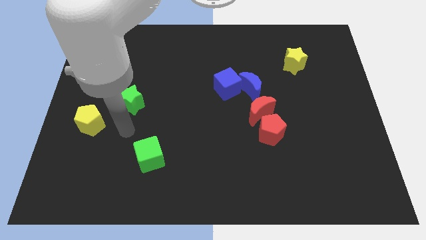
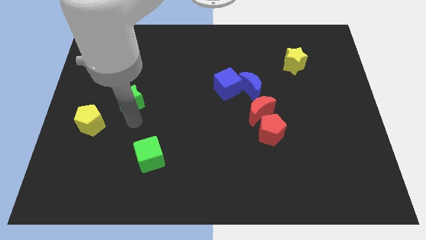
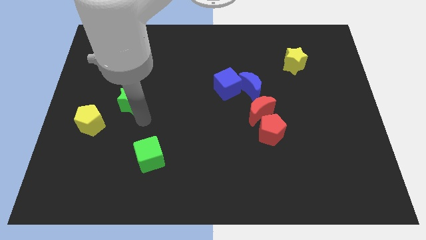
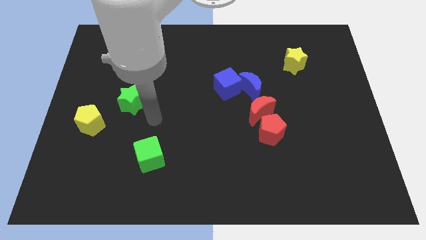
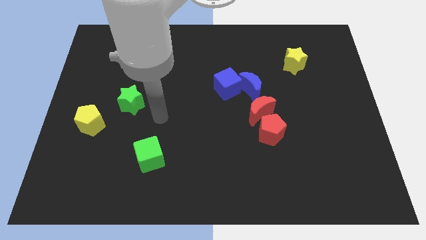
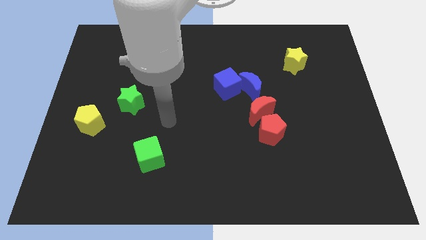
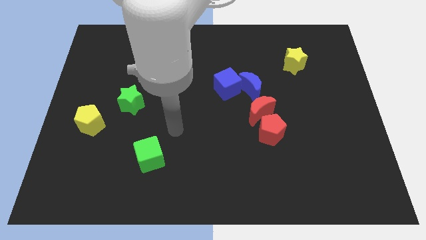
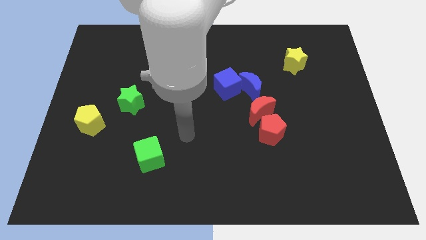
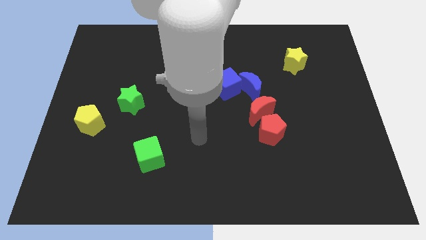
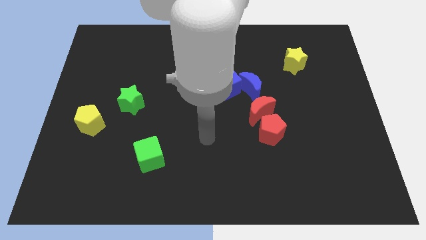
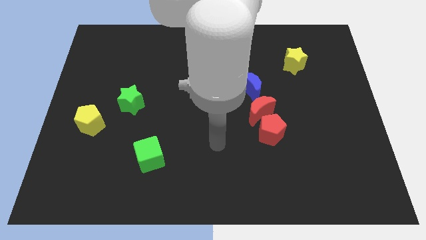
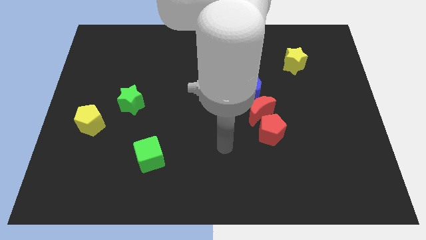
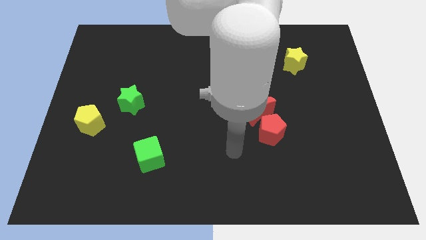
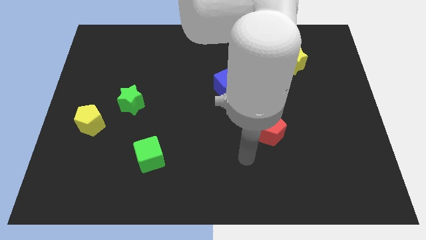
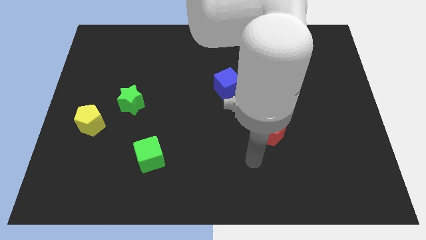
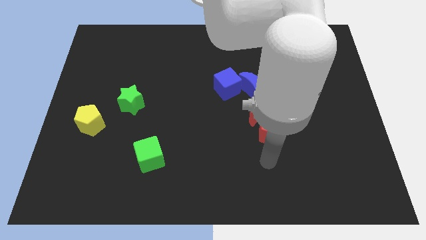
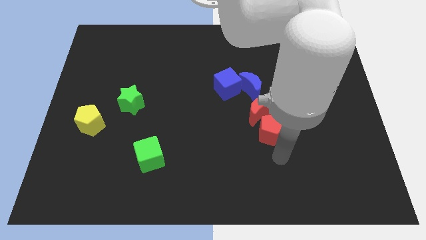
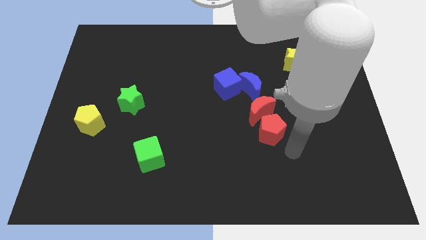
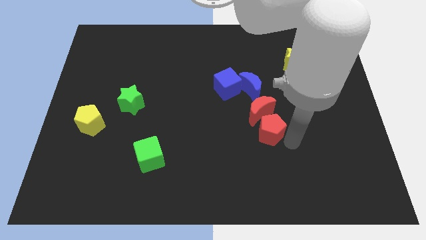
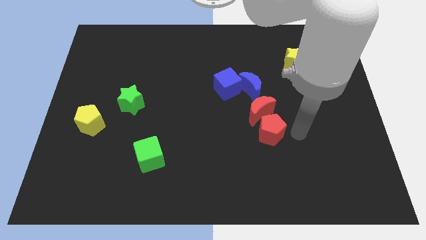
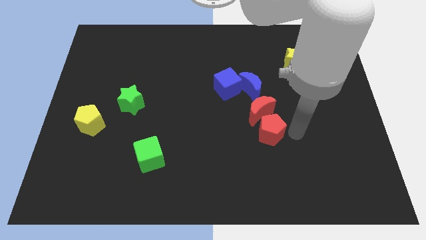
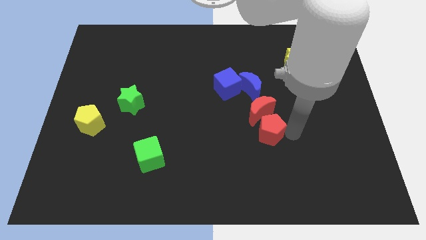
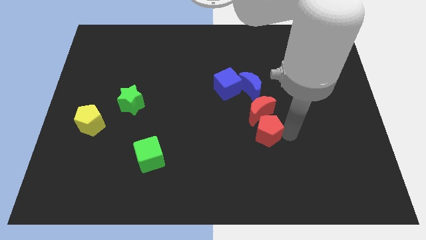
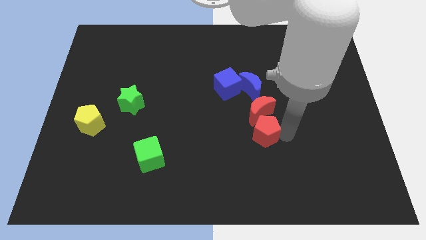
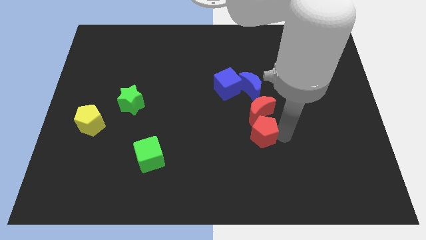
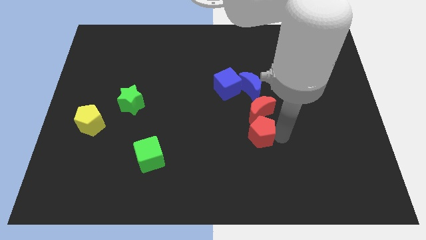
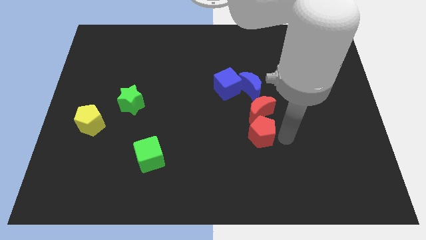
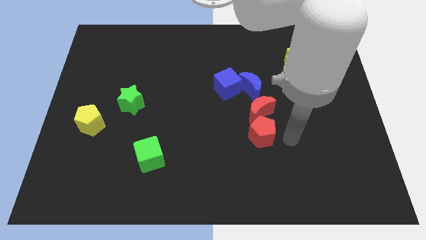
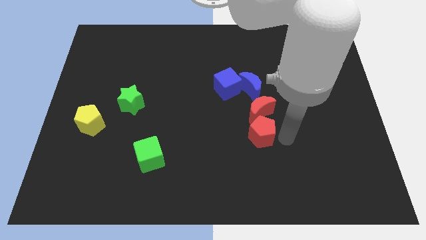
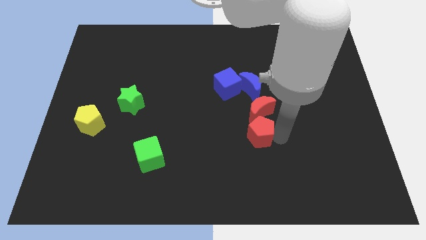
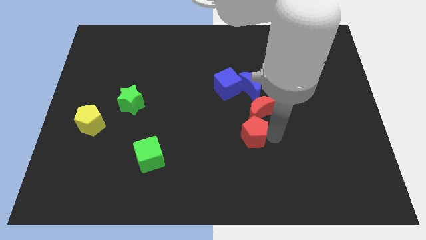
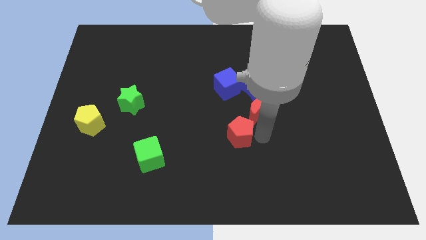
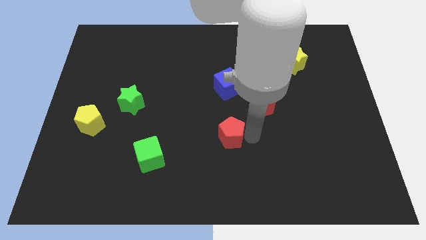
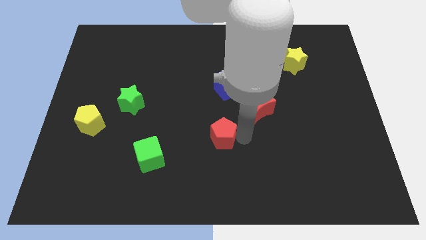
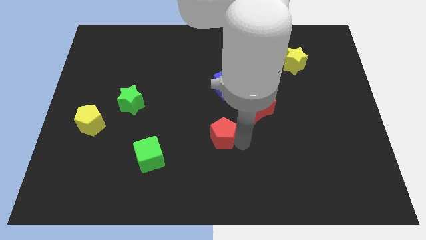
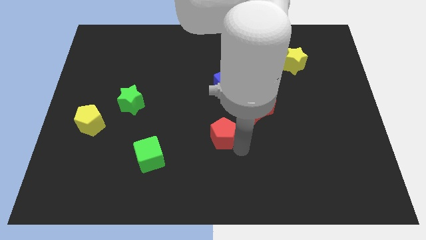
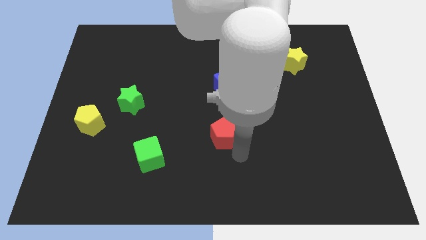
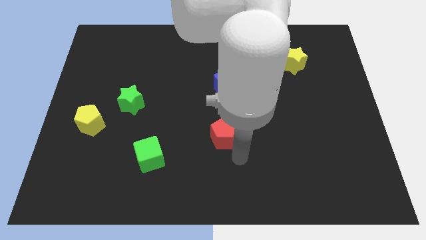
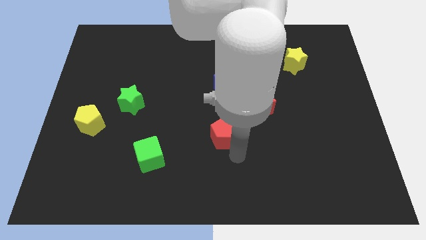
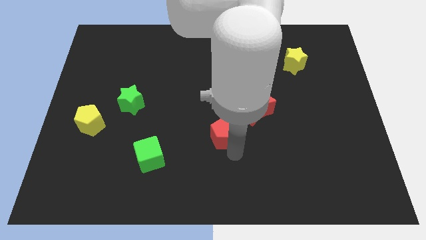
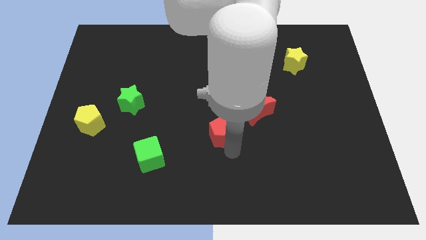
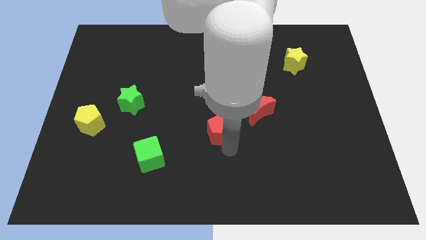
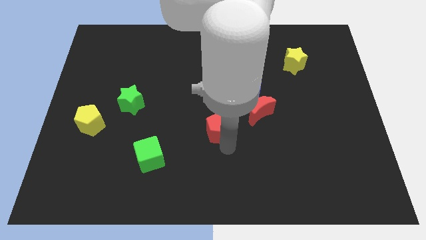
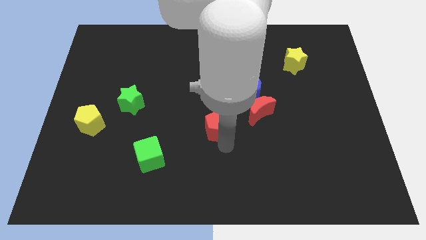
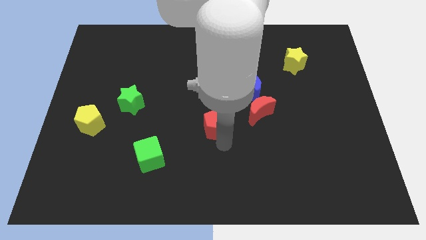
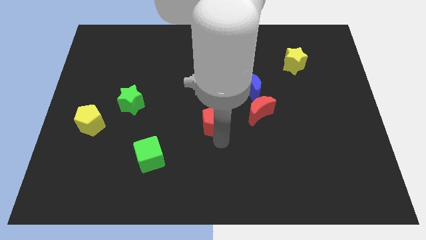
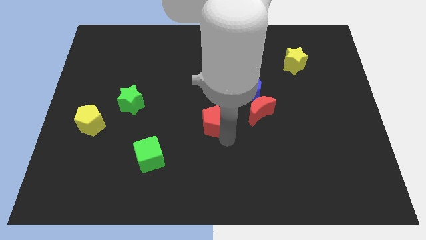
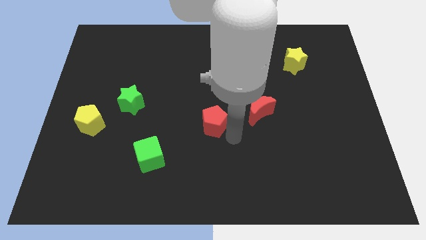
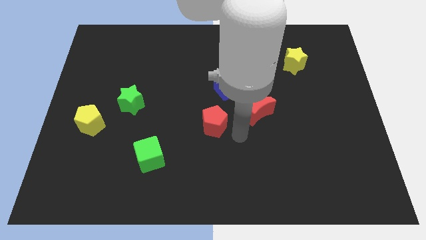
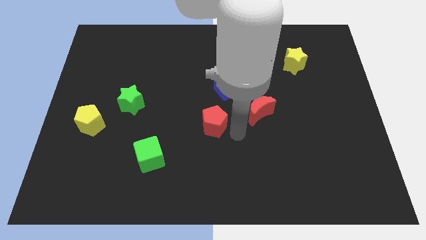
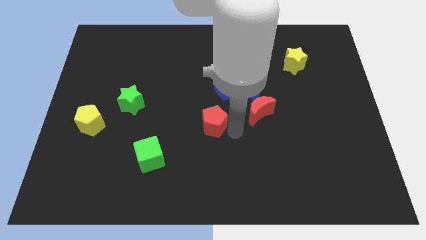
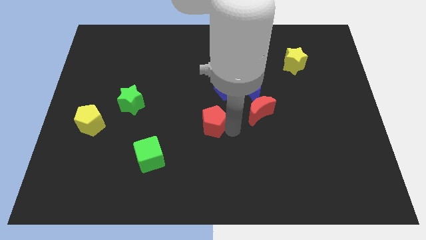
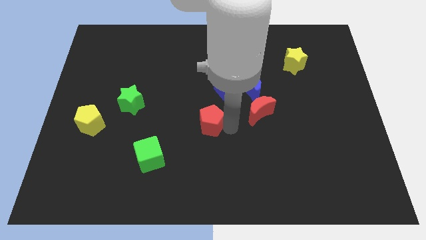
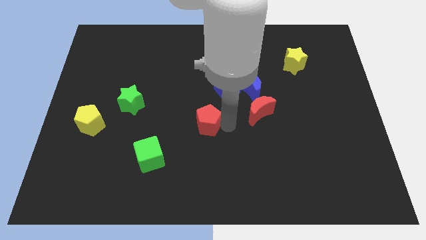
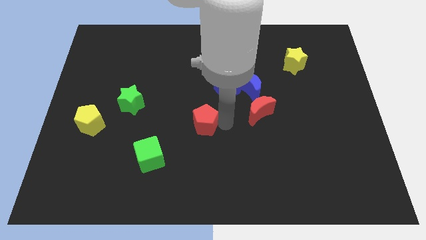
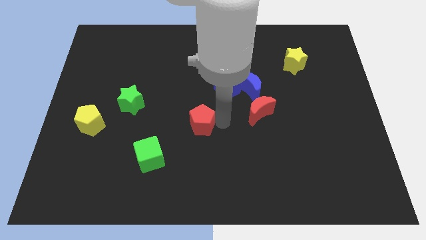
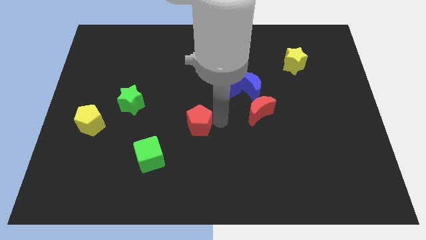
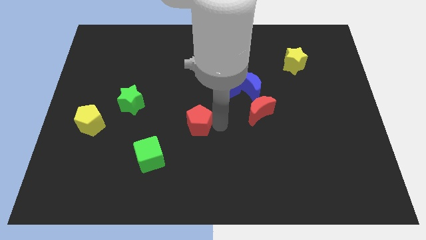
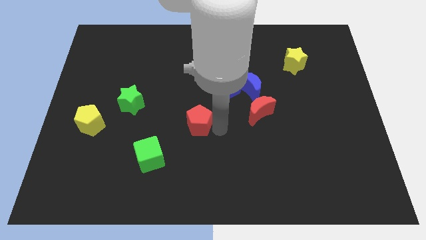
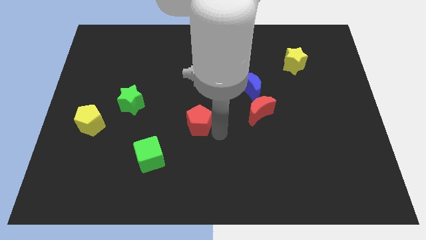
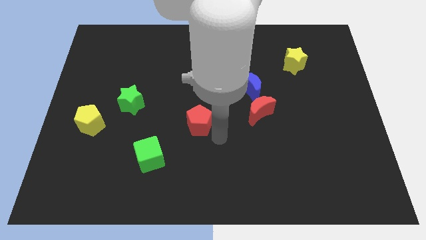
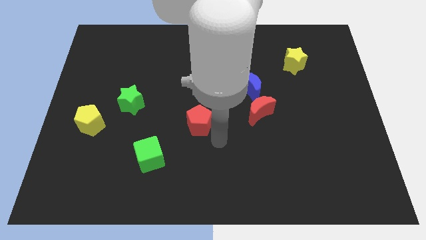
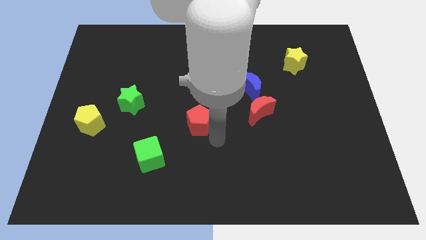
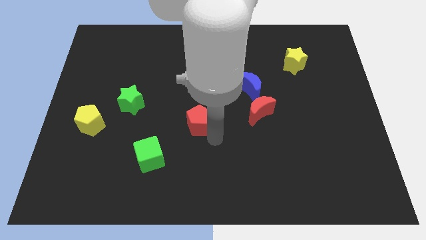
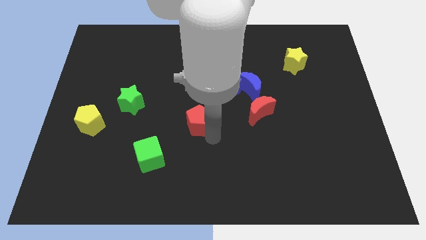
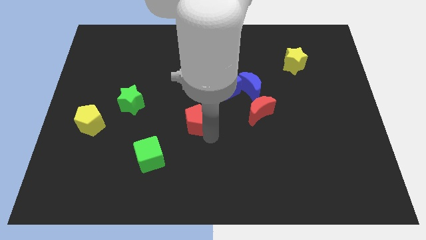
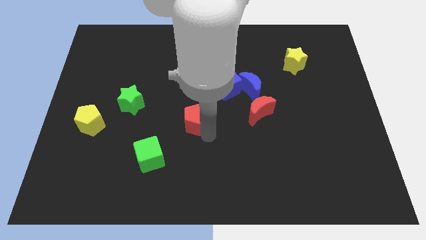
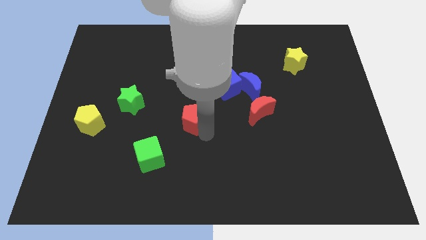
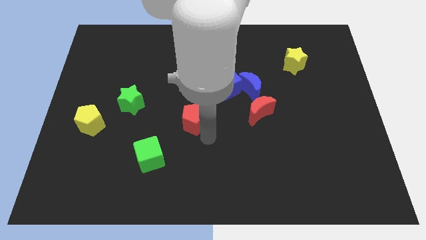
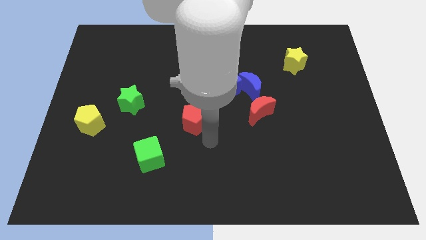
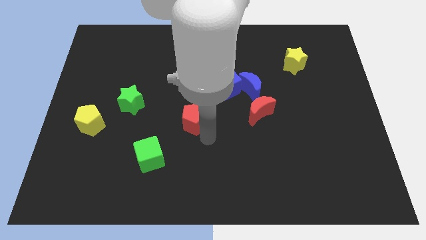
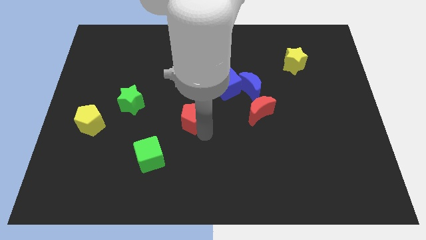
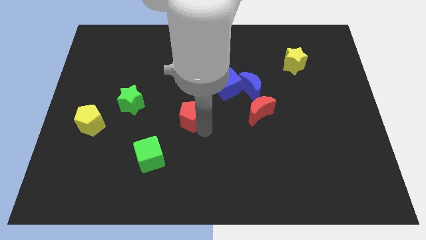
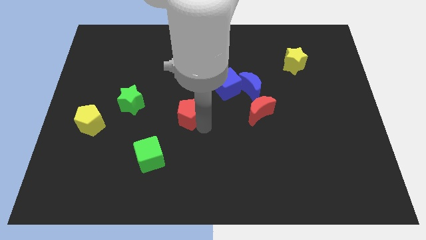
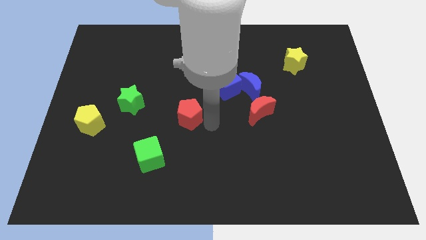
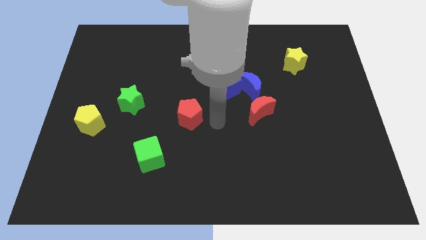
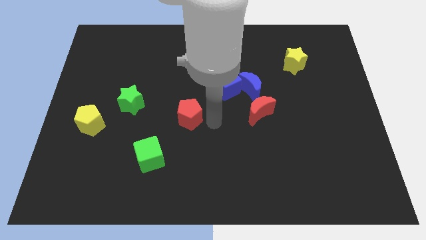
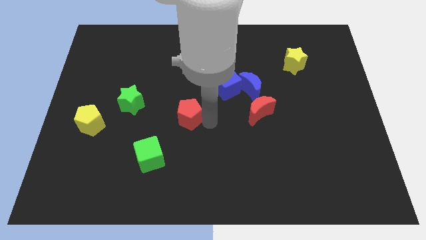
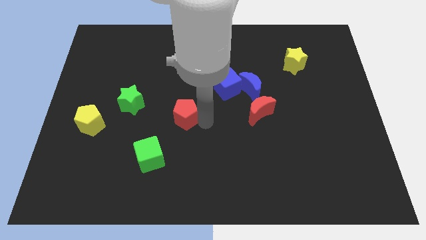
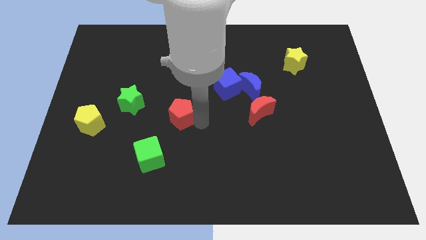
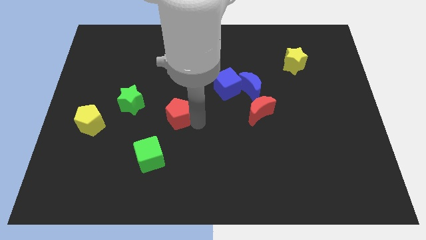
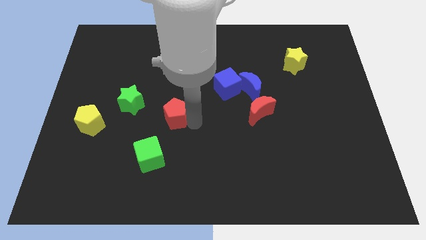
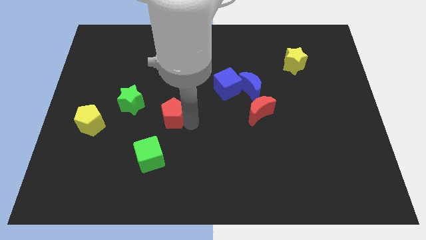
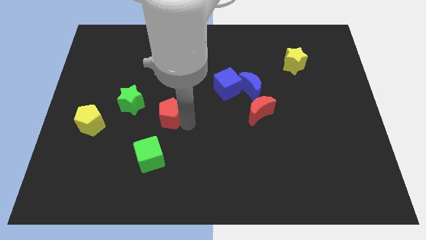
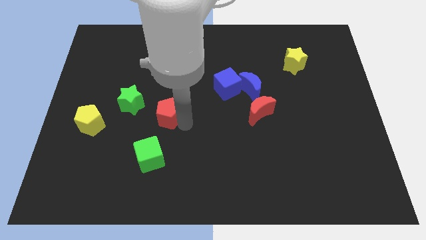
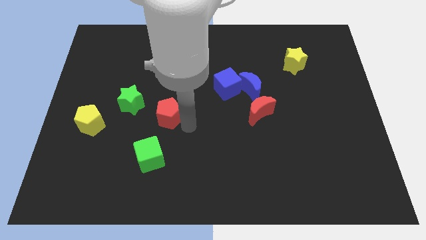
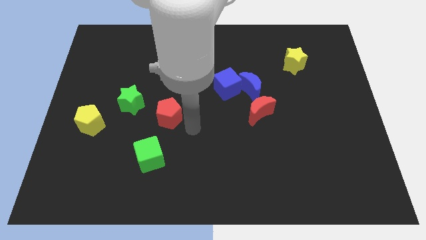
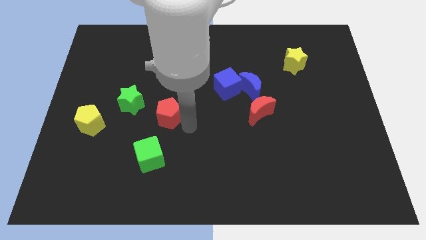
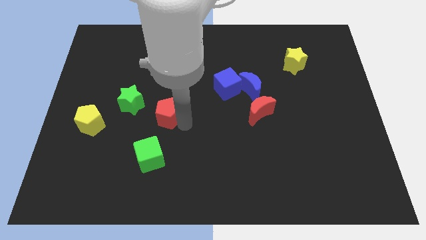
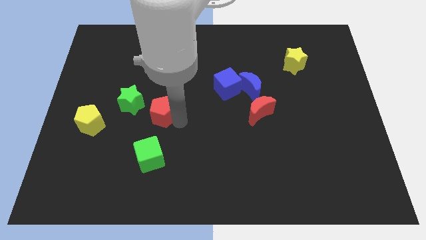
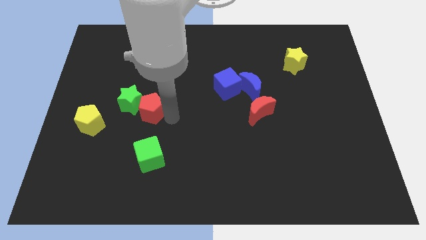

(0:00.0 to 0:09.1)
push the red pentagon next to the green star
